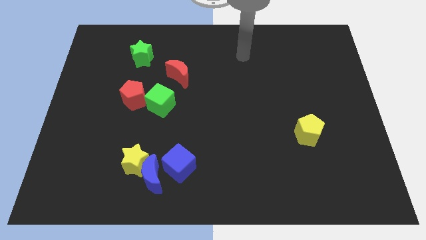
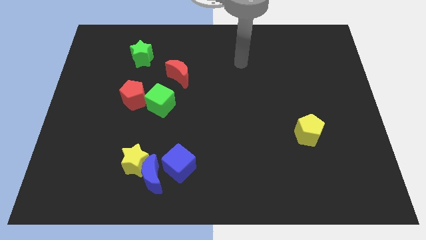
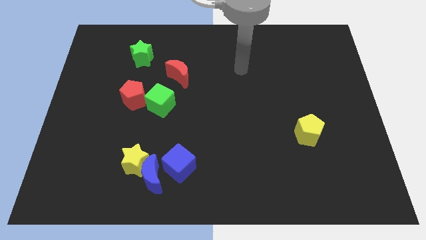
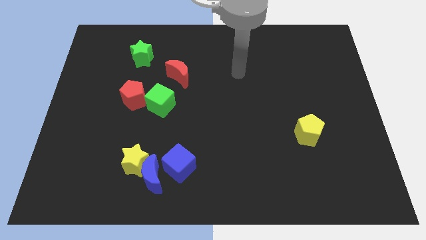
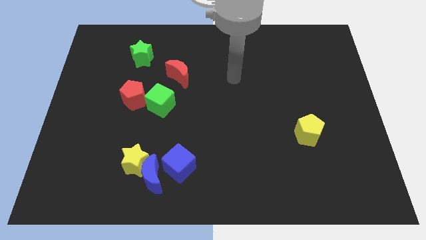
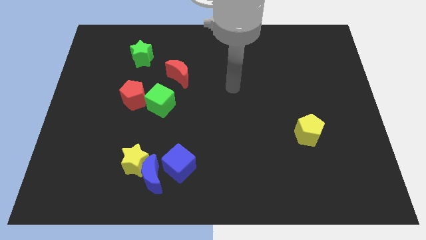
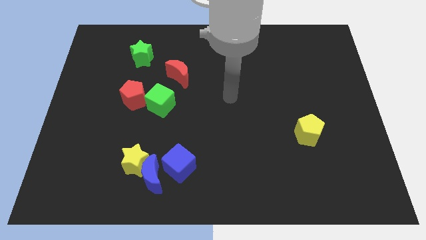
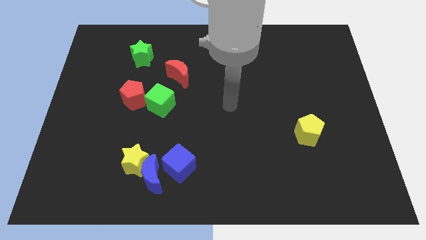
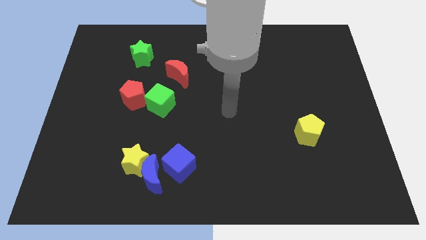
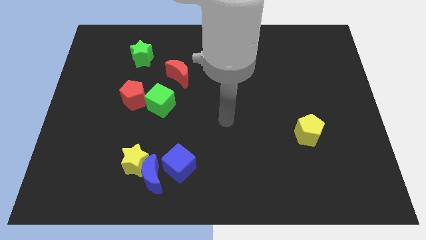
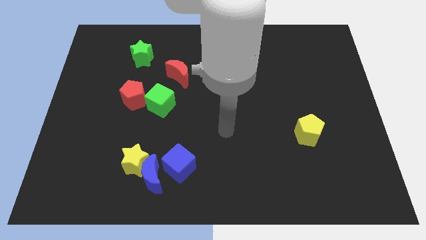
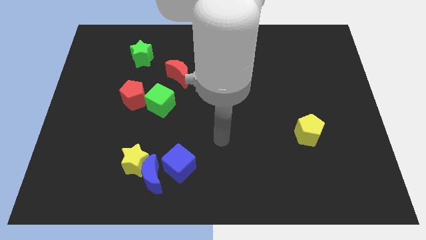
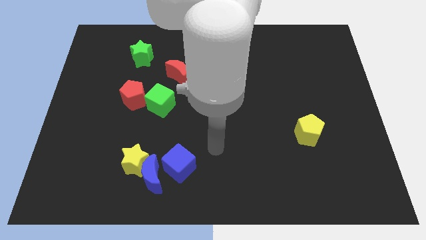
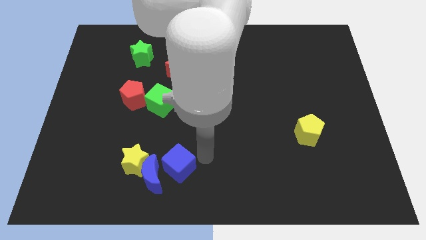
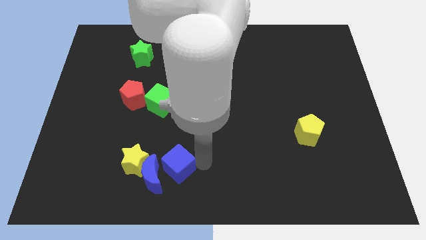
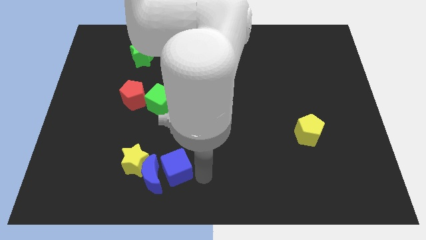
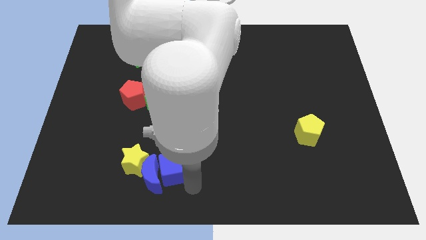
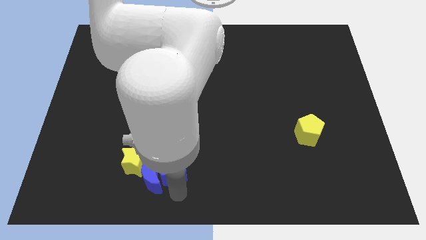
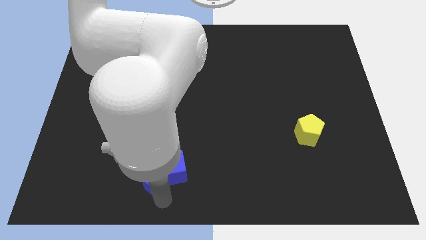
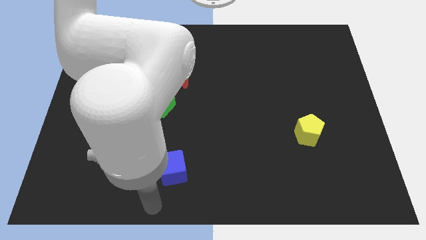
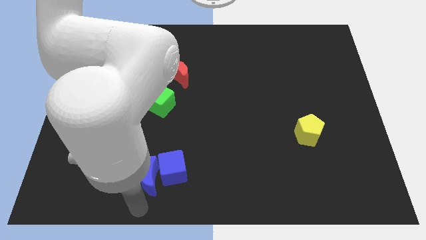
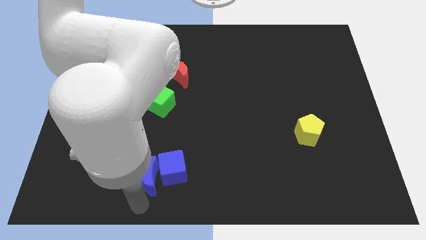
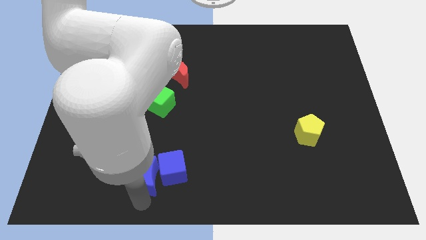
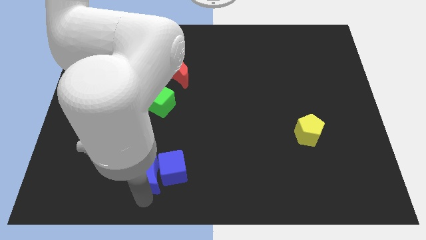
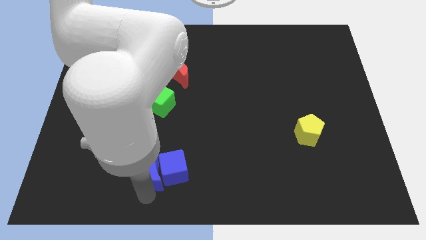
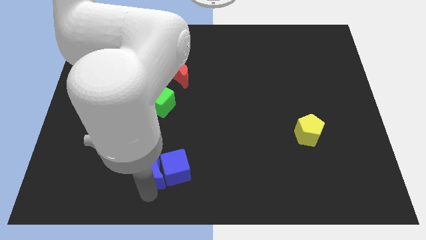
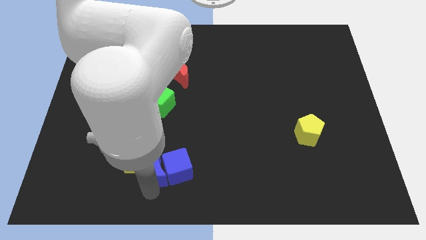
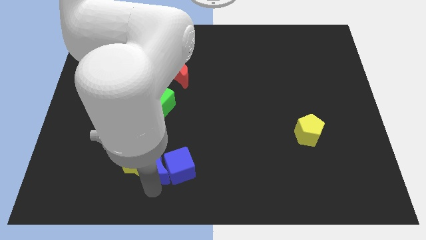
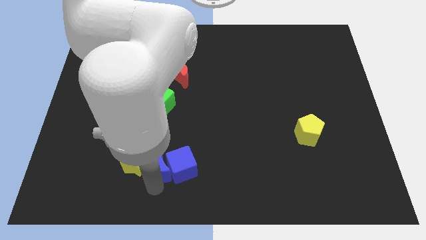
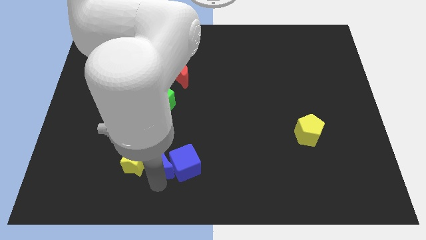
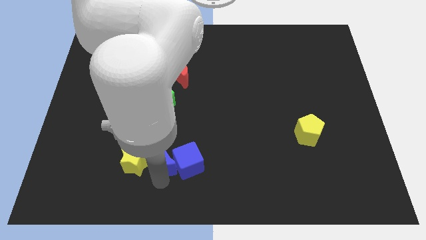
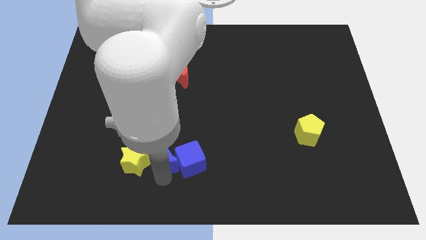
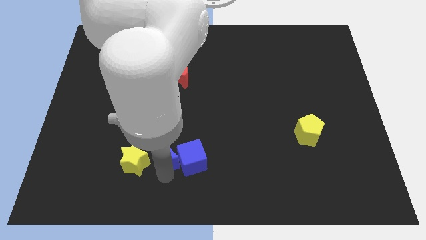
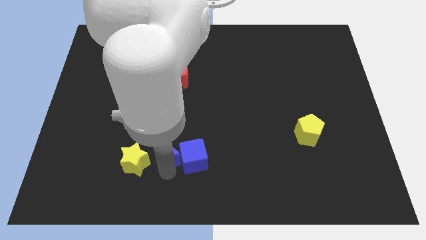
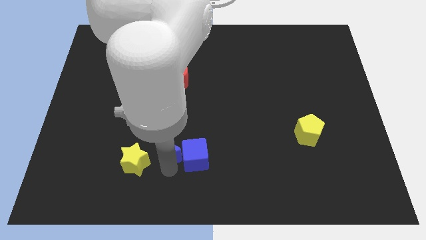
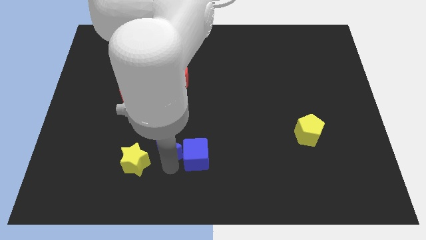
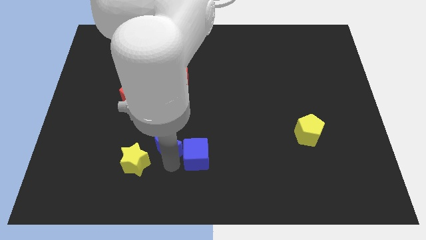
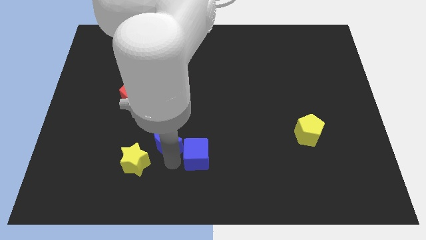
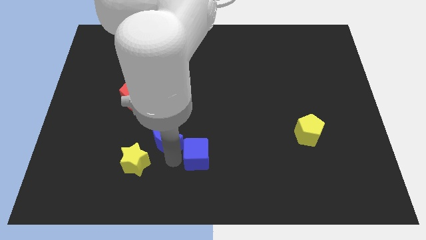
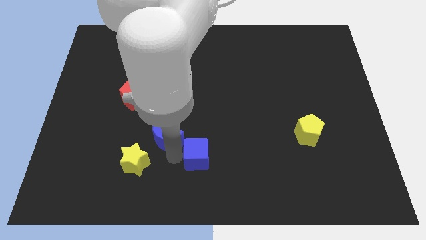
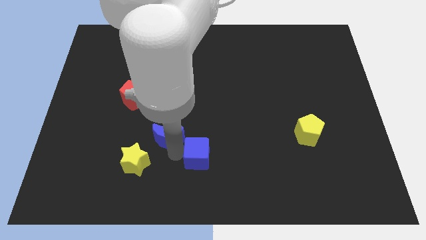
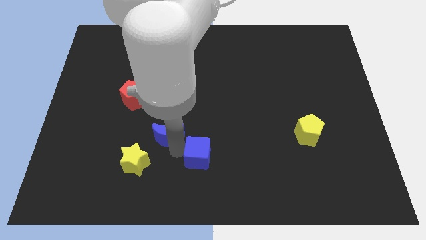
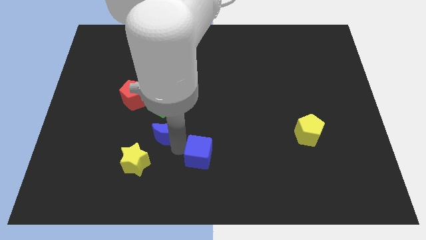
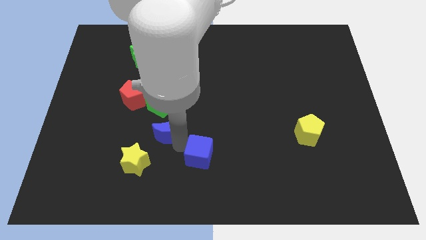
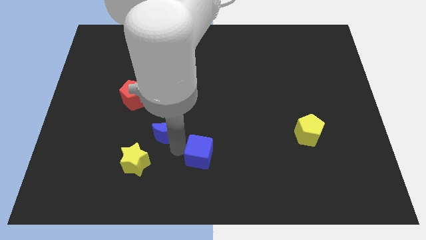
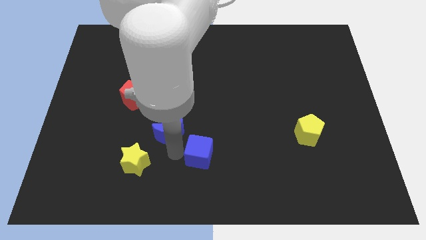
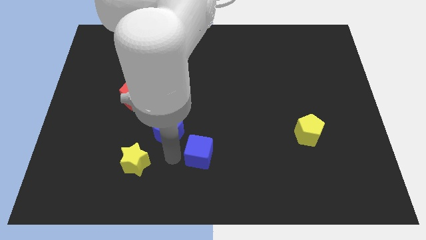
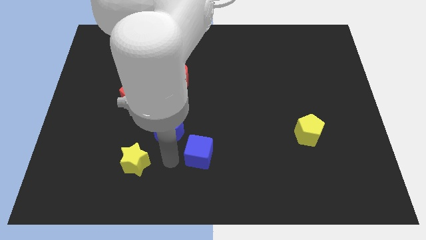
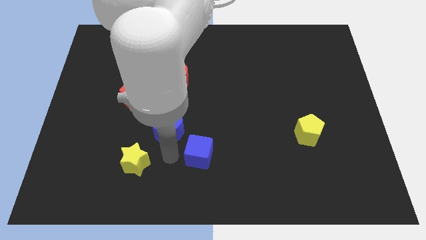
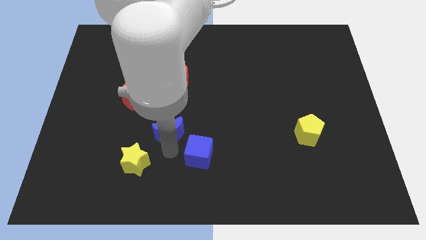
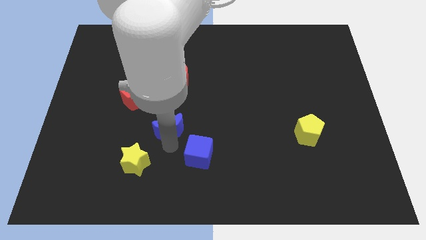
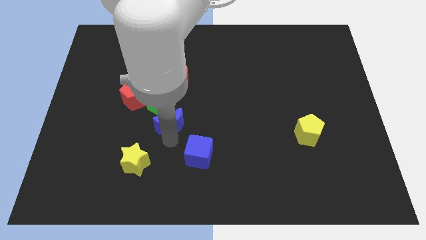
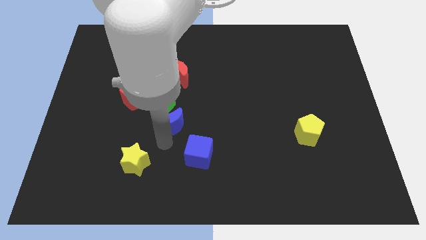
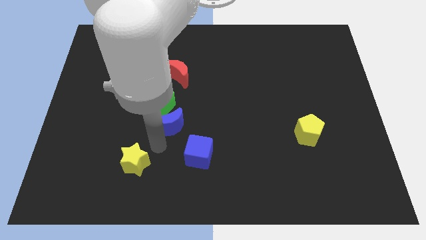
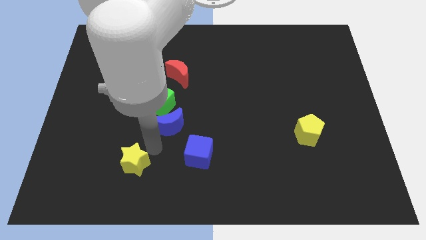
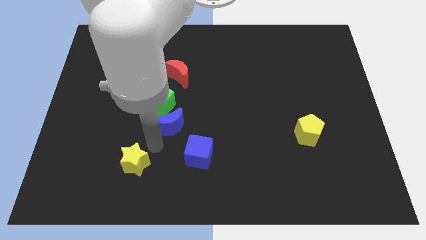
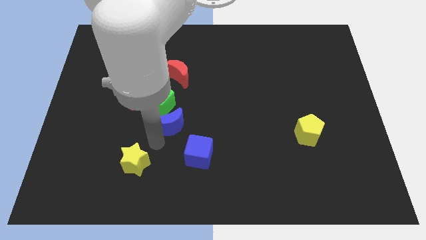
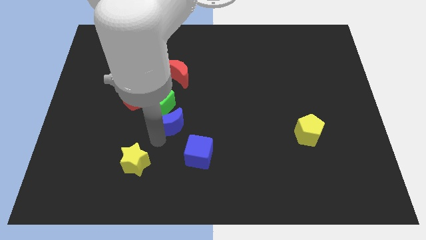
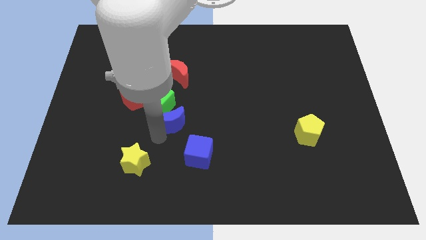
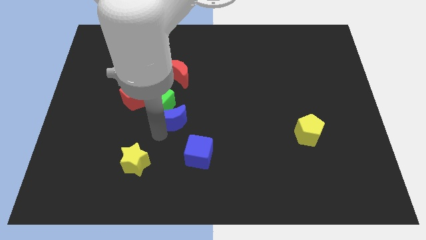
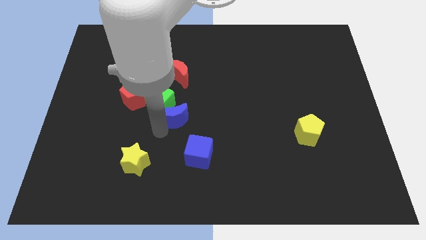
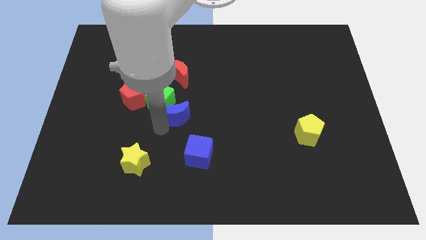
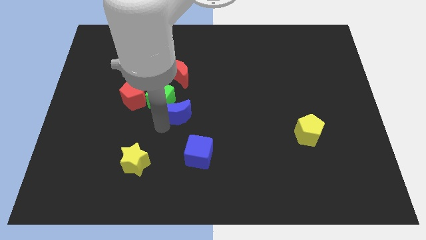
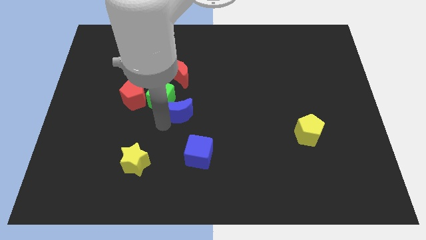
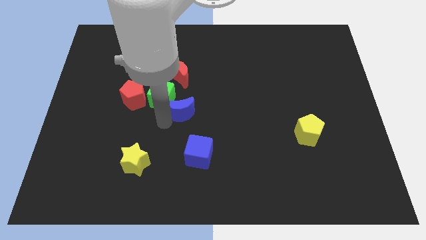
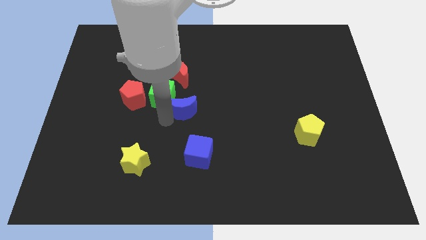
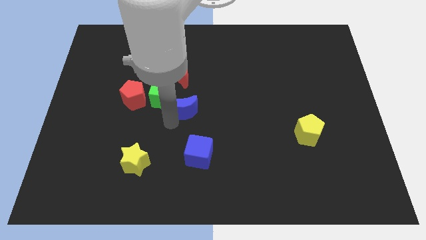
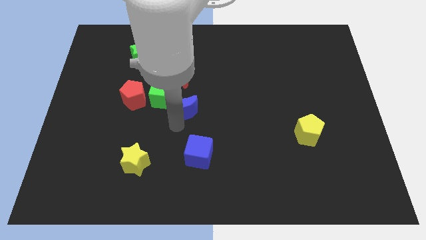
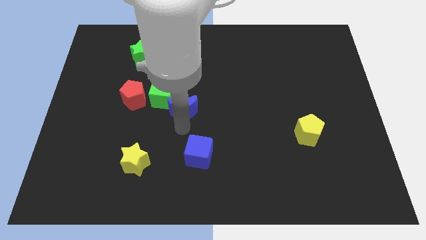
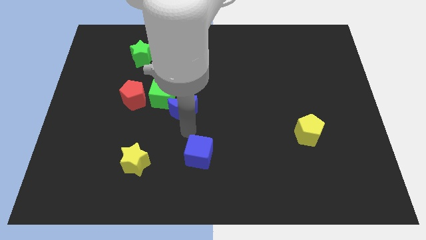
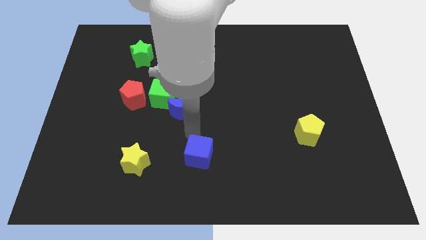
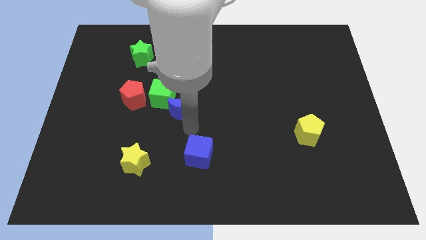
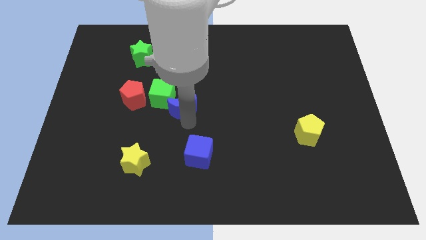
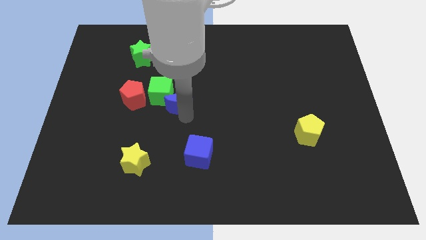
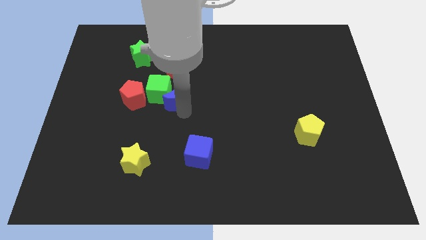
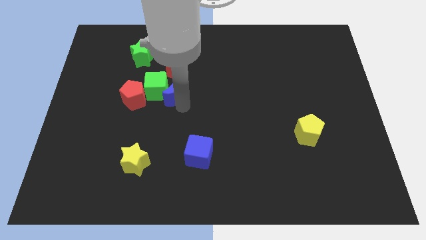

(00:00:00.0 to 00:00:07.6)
move the blue moon up

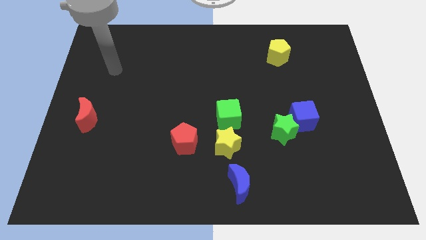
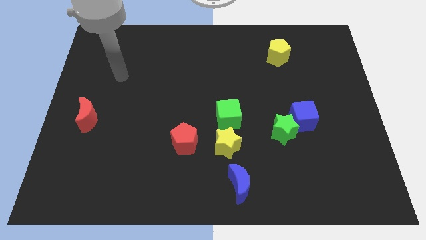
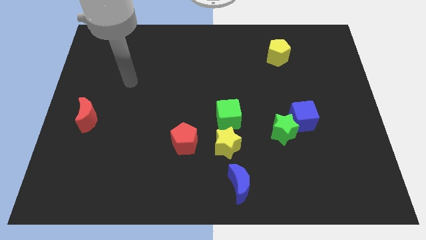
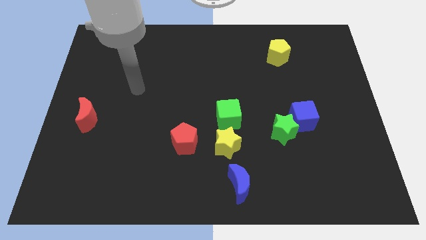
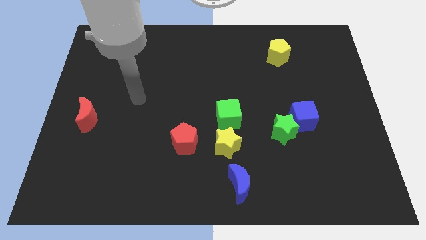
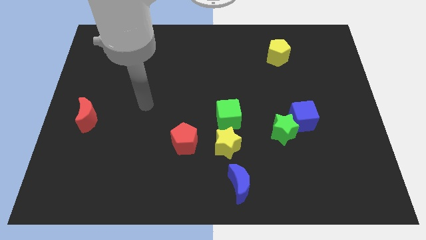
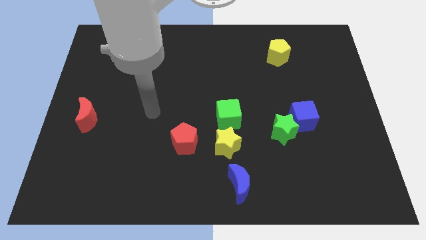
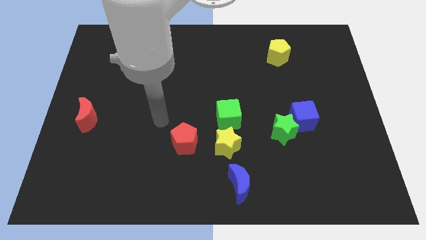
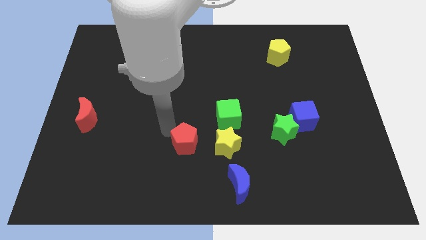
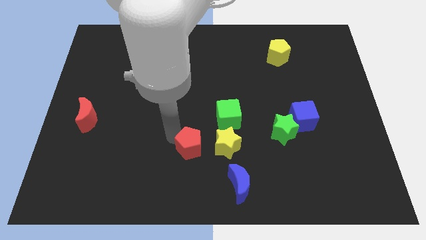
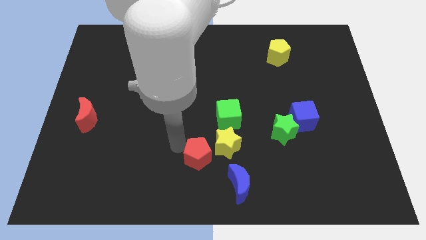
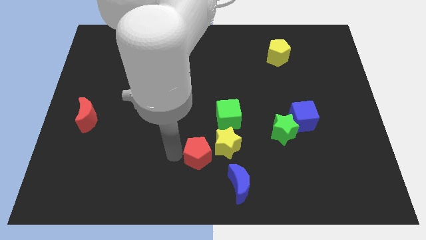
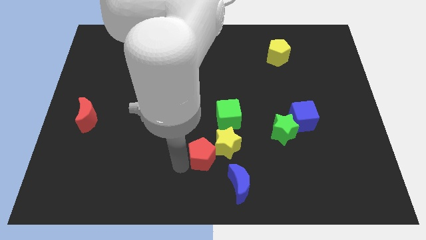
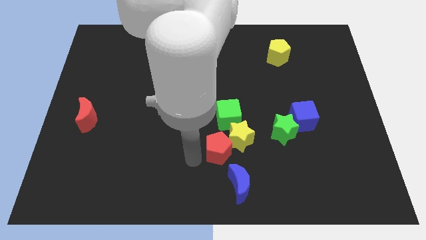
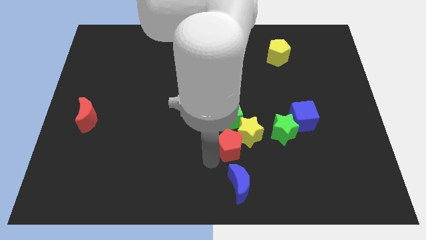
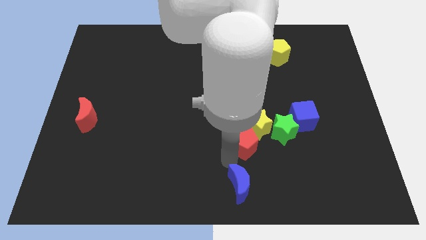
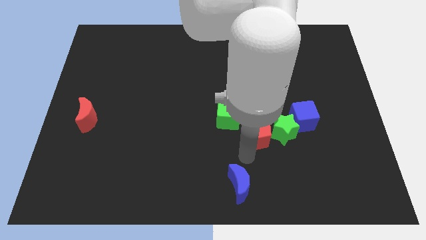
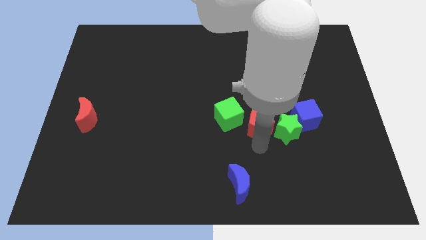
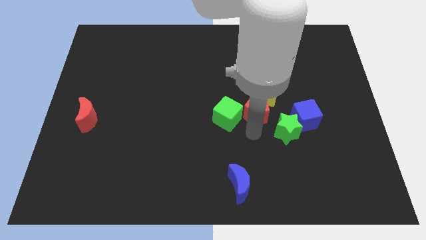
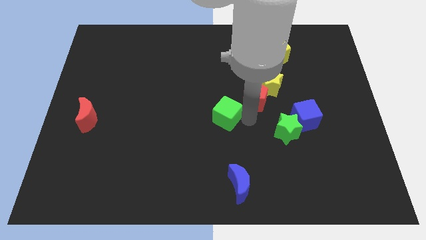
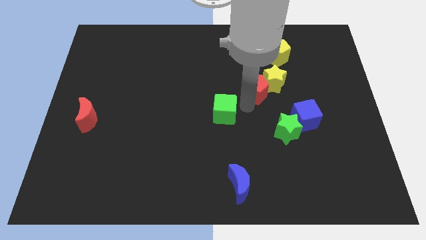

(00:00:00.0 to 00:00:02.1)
slide the yellow star upwards and to the right diagonally
